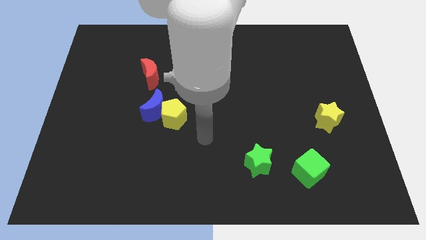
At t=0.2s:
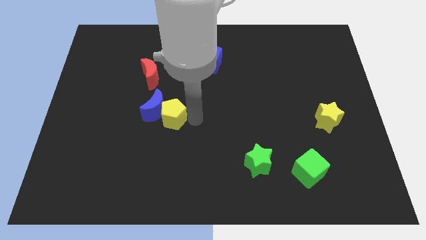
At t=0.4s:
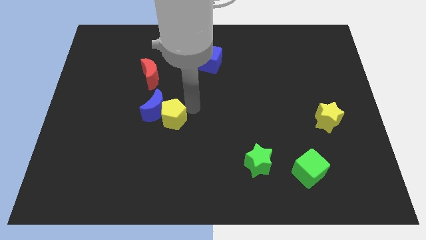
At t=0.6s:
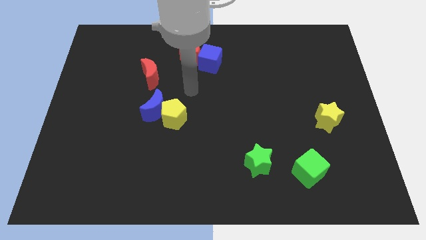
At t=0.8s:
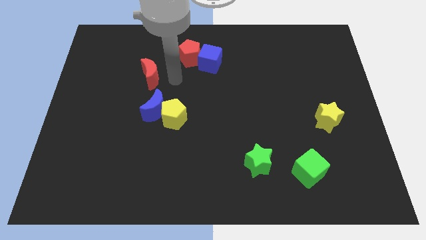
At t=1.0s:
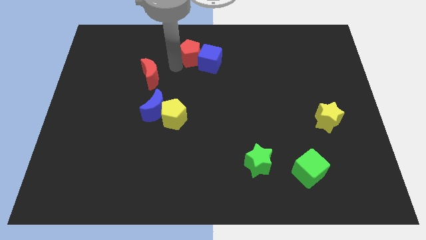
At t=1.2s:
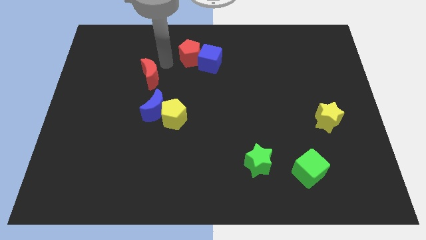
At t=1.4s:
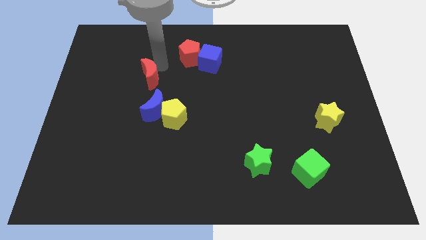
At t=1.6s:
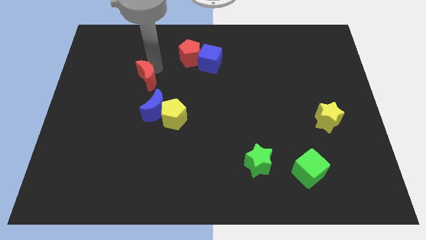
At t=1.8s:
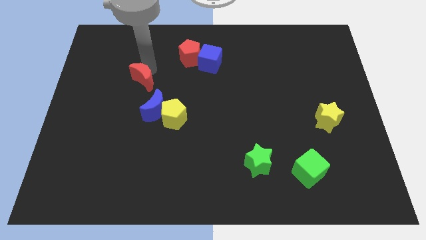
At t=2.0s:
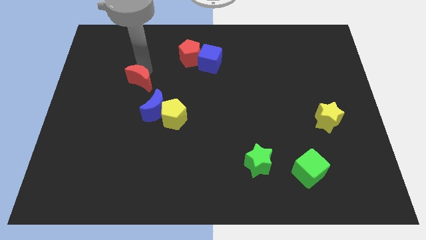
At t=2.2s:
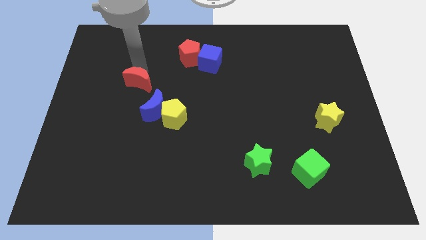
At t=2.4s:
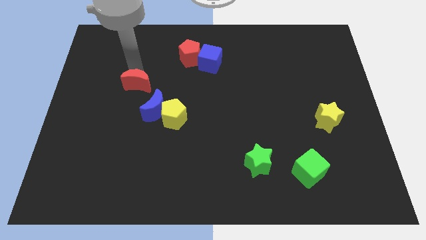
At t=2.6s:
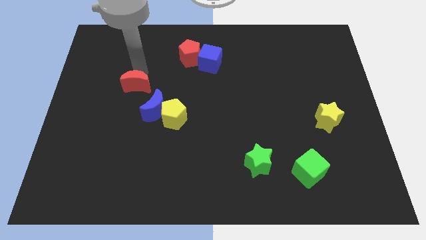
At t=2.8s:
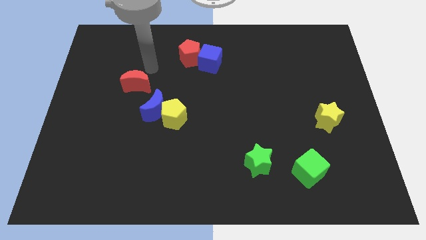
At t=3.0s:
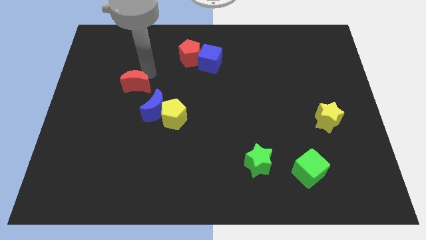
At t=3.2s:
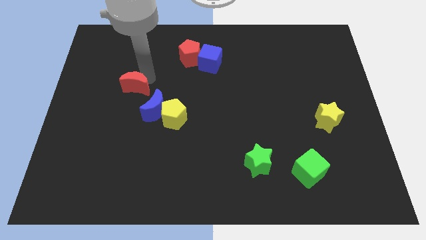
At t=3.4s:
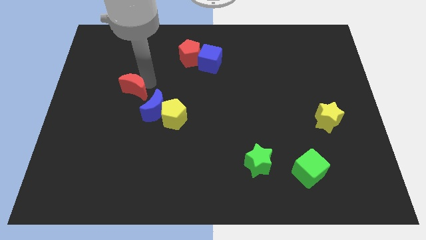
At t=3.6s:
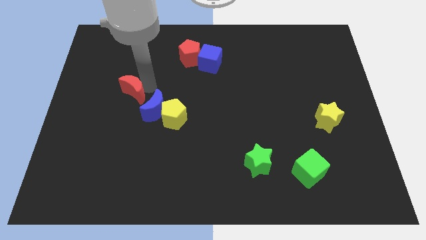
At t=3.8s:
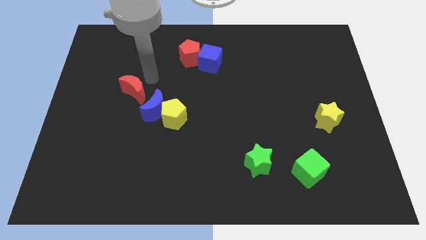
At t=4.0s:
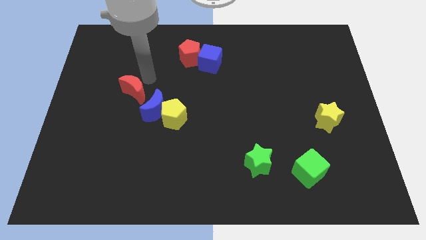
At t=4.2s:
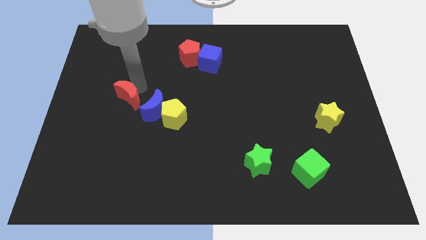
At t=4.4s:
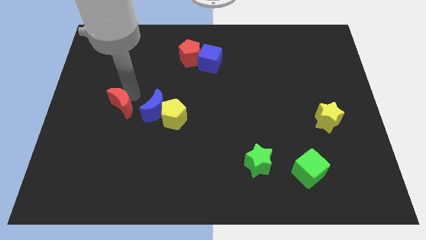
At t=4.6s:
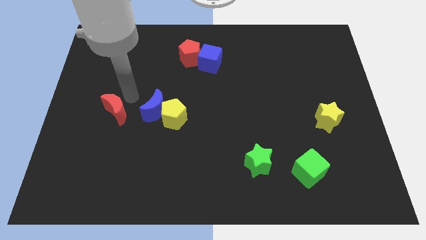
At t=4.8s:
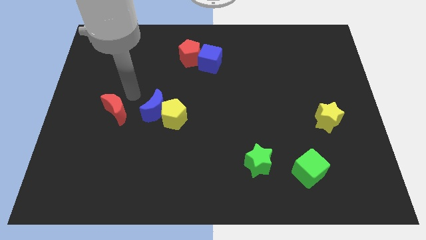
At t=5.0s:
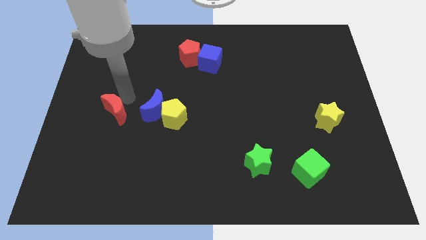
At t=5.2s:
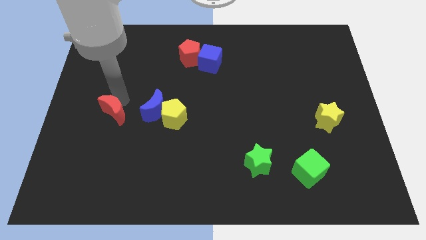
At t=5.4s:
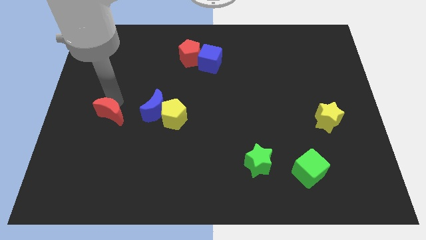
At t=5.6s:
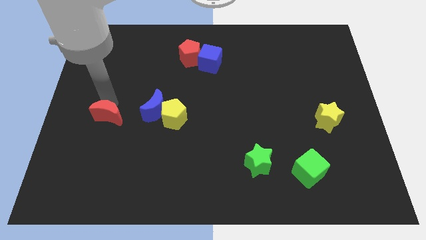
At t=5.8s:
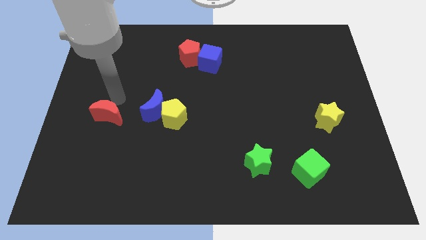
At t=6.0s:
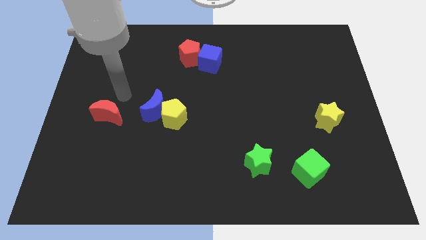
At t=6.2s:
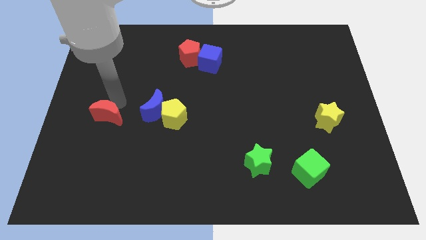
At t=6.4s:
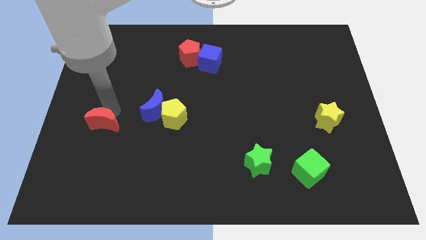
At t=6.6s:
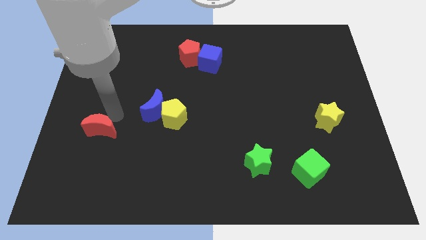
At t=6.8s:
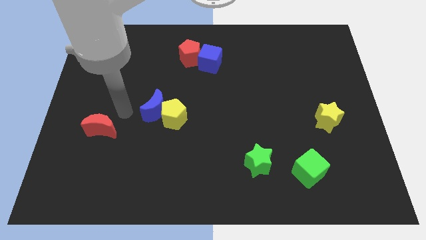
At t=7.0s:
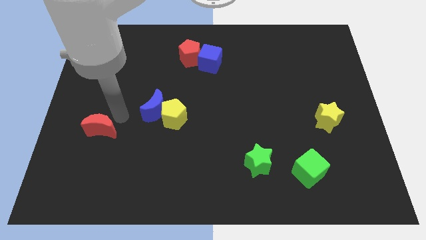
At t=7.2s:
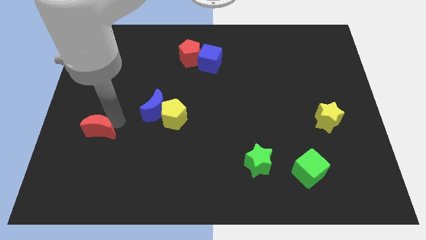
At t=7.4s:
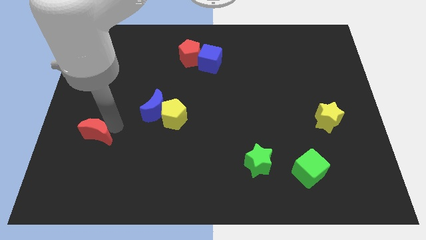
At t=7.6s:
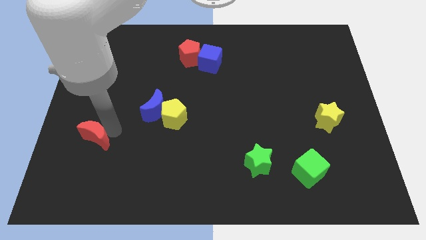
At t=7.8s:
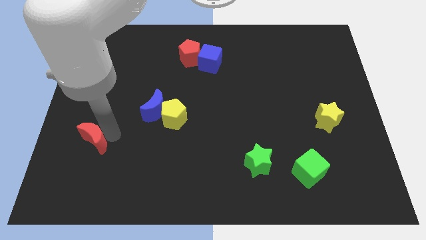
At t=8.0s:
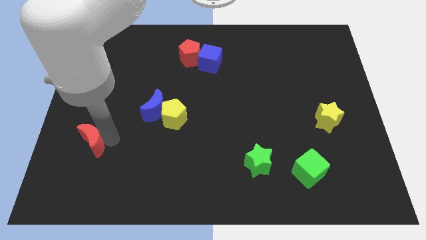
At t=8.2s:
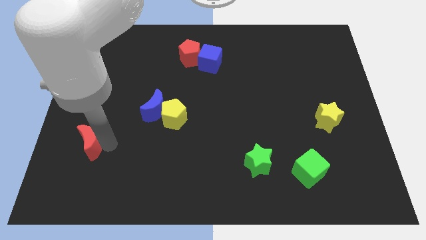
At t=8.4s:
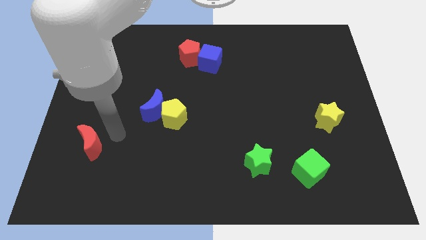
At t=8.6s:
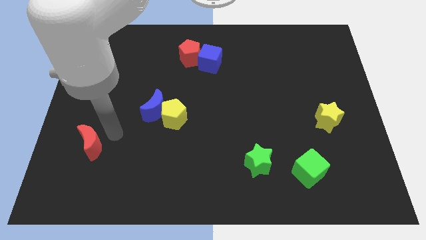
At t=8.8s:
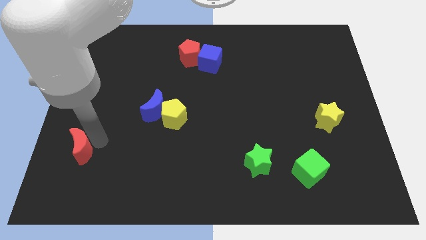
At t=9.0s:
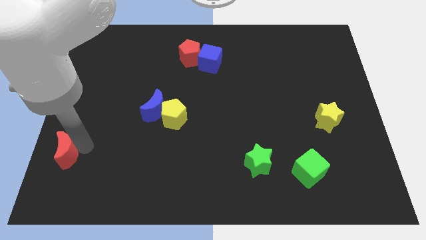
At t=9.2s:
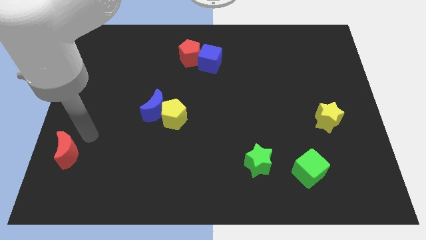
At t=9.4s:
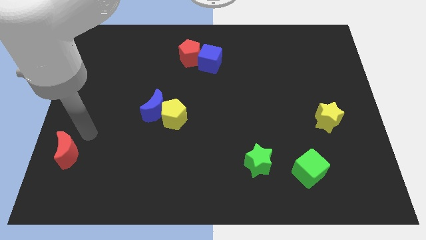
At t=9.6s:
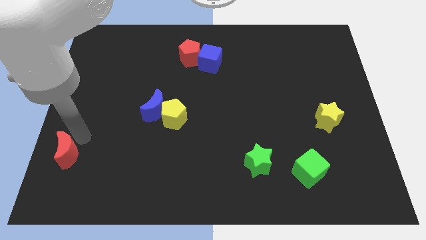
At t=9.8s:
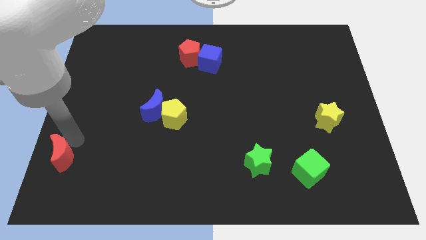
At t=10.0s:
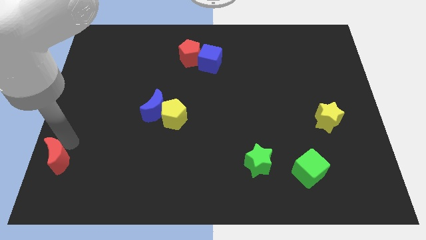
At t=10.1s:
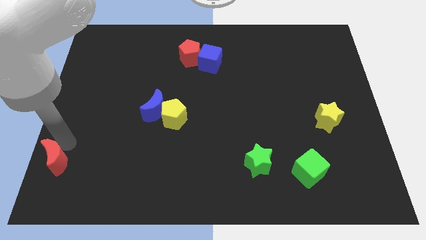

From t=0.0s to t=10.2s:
push the red moon to the lower left corner

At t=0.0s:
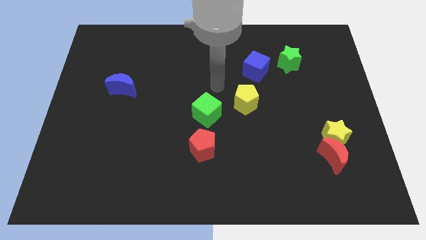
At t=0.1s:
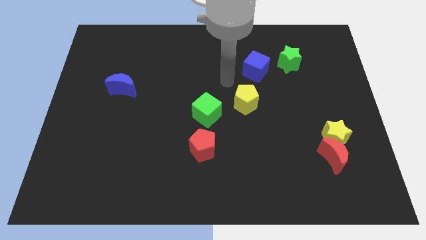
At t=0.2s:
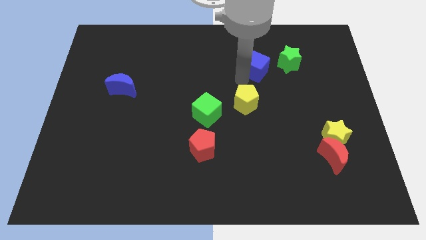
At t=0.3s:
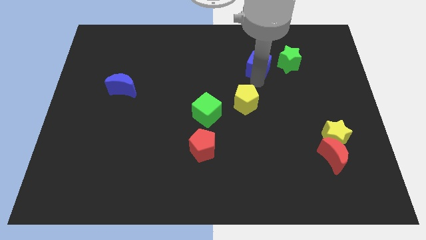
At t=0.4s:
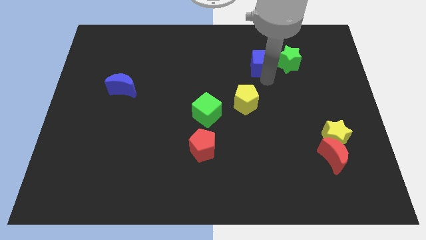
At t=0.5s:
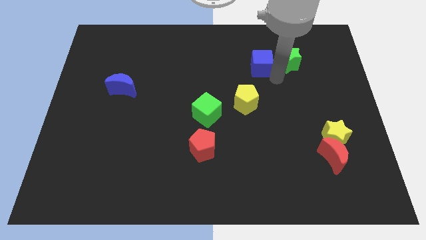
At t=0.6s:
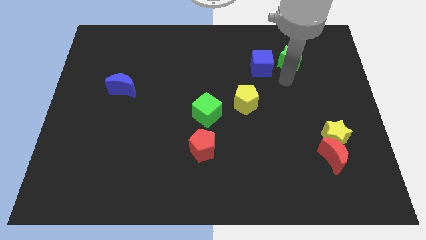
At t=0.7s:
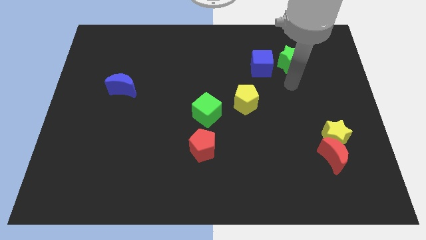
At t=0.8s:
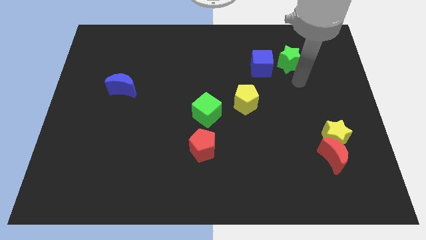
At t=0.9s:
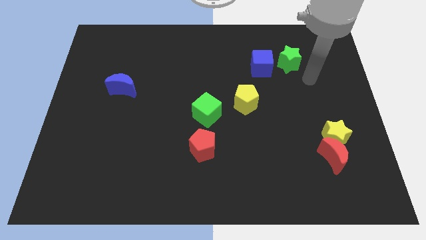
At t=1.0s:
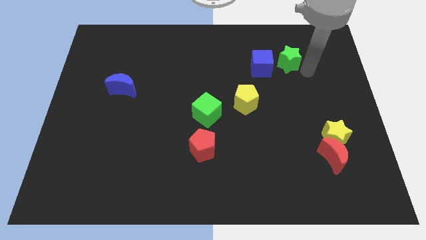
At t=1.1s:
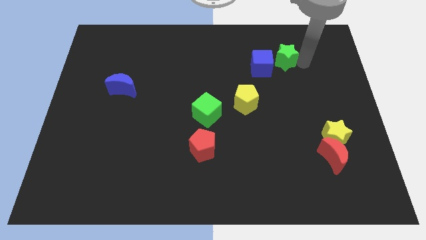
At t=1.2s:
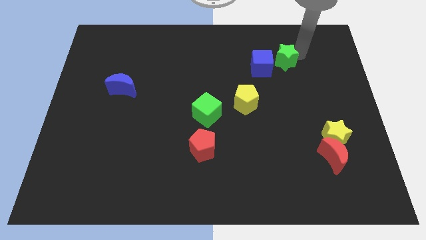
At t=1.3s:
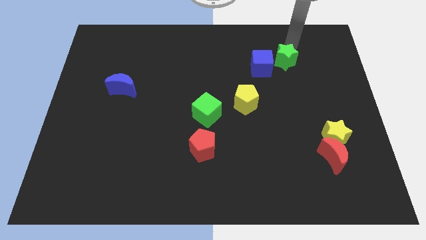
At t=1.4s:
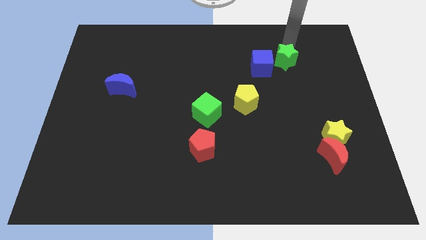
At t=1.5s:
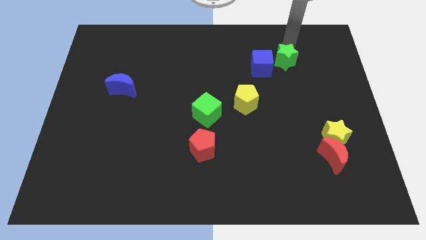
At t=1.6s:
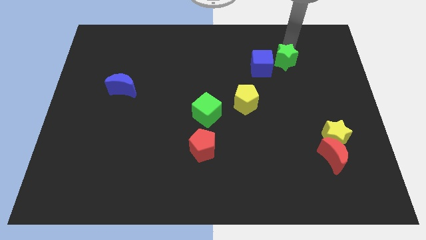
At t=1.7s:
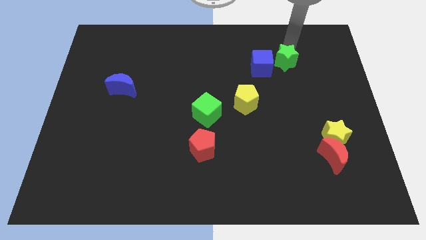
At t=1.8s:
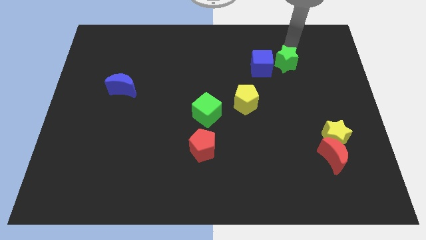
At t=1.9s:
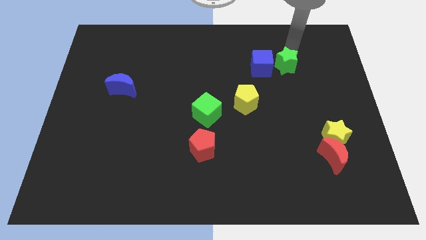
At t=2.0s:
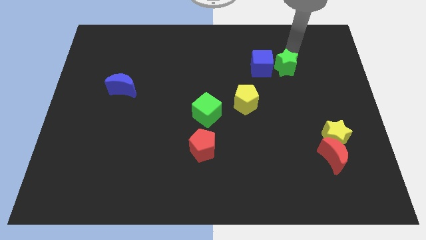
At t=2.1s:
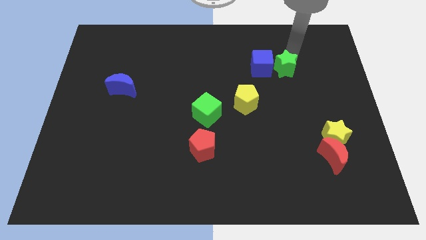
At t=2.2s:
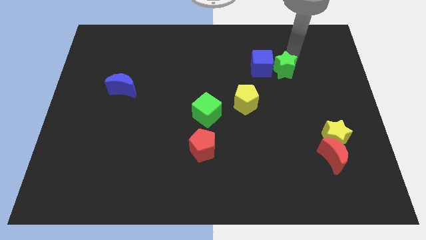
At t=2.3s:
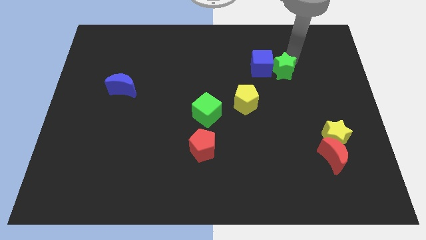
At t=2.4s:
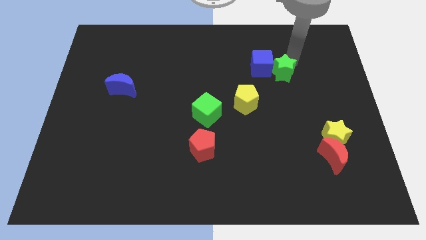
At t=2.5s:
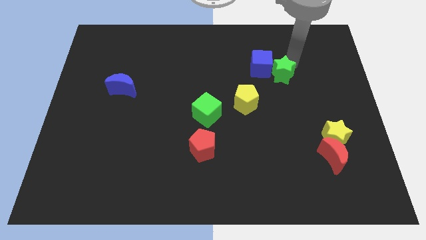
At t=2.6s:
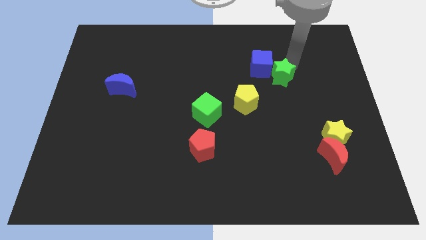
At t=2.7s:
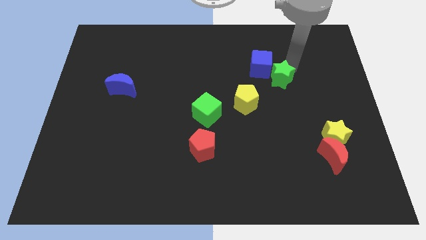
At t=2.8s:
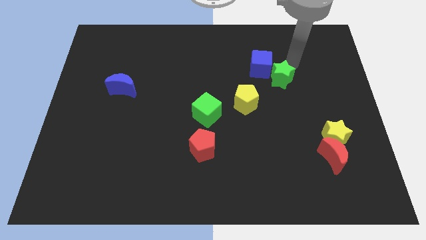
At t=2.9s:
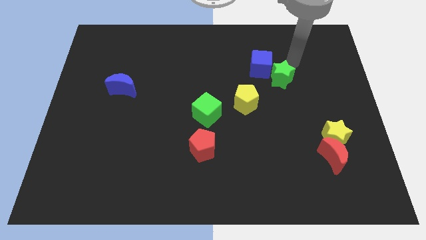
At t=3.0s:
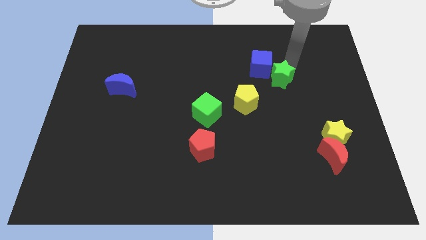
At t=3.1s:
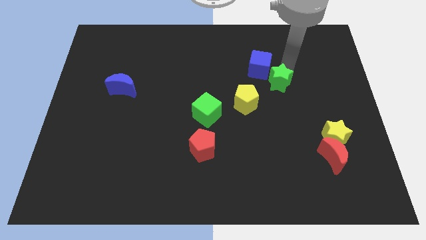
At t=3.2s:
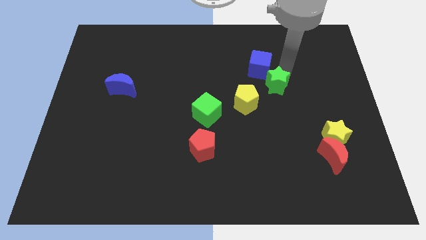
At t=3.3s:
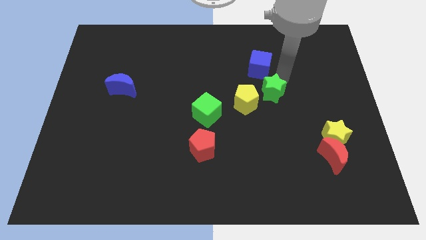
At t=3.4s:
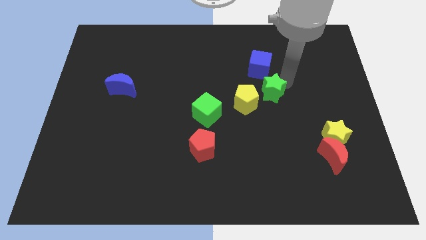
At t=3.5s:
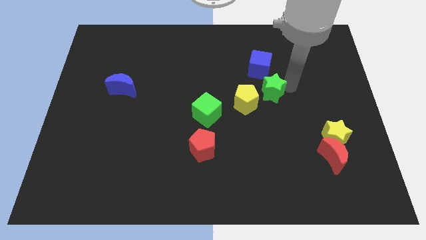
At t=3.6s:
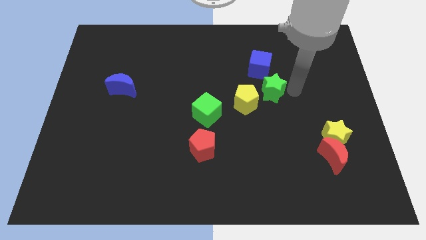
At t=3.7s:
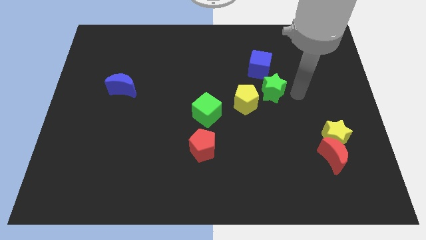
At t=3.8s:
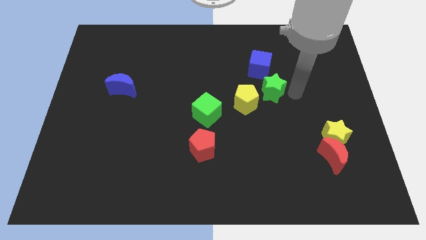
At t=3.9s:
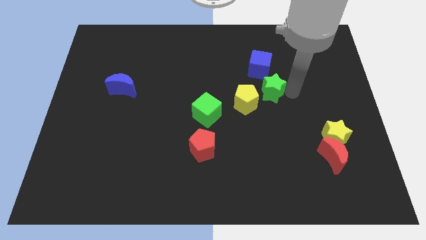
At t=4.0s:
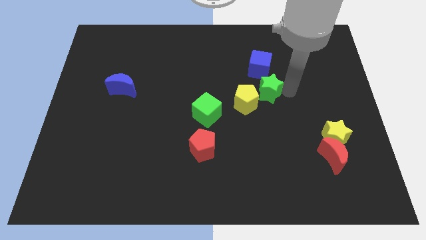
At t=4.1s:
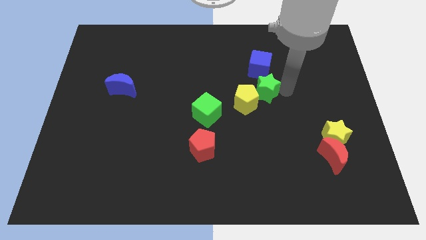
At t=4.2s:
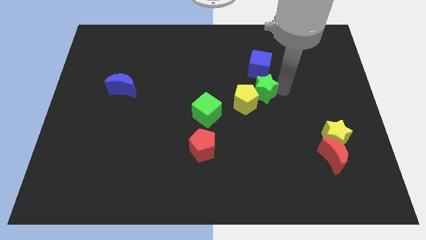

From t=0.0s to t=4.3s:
slide the green star to the center of the board
